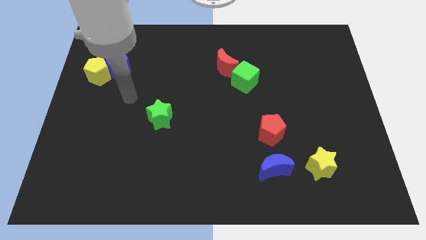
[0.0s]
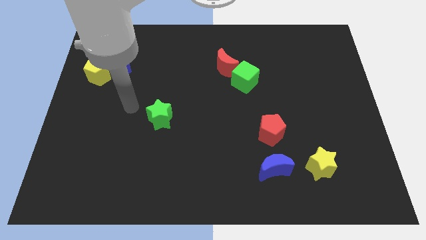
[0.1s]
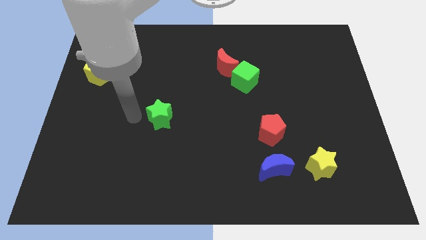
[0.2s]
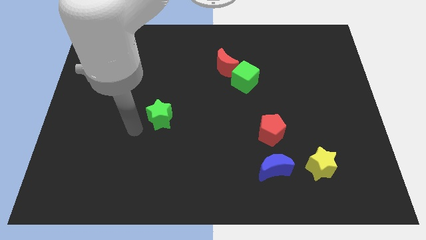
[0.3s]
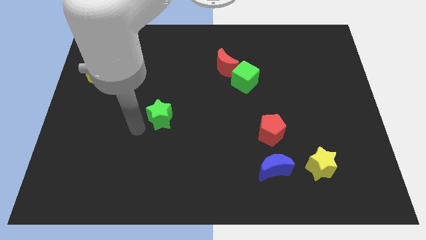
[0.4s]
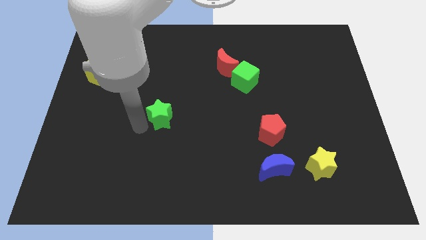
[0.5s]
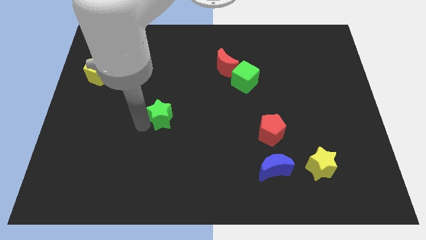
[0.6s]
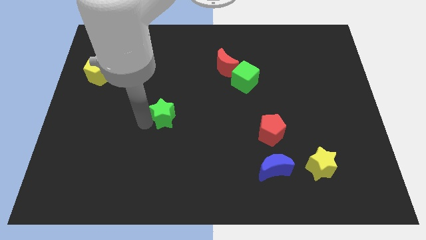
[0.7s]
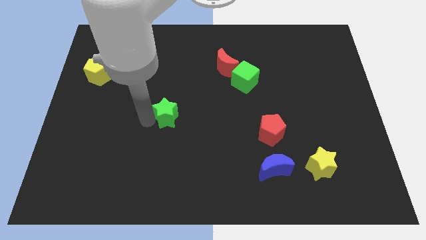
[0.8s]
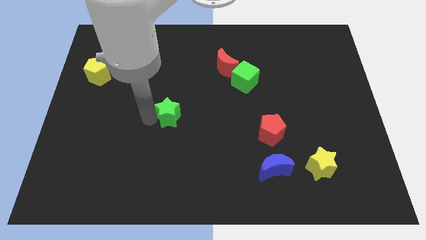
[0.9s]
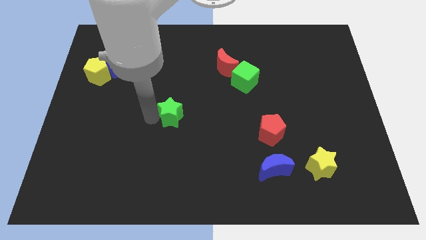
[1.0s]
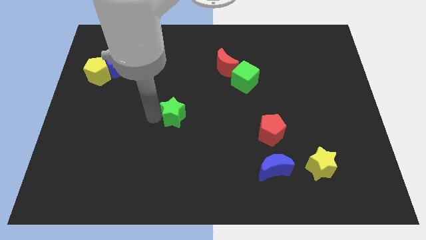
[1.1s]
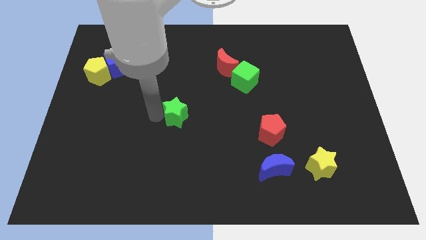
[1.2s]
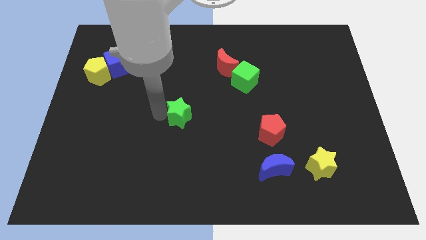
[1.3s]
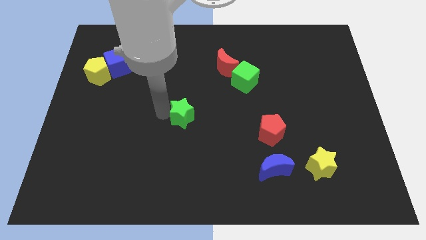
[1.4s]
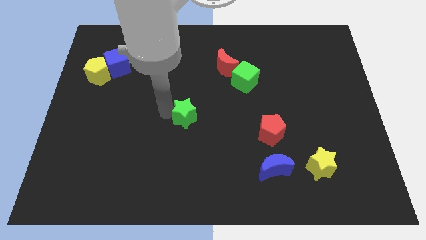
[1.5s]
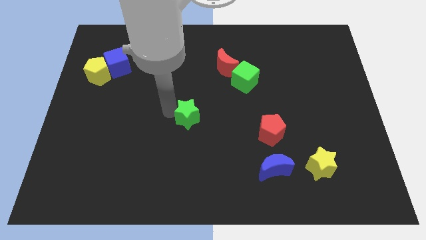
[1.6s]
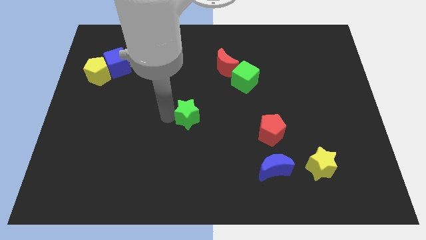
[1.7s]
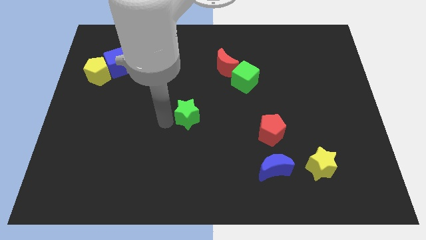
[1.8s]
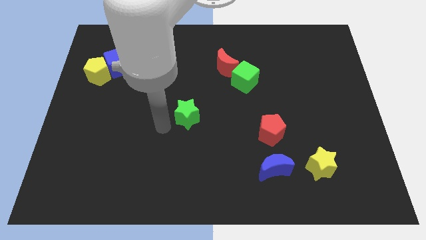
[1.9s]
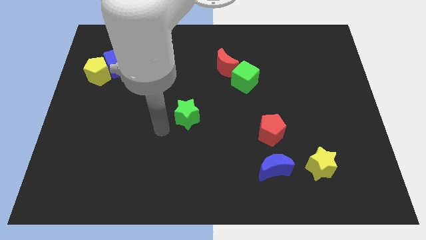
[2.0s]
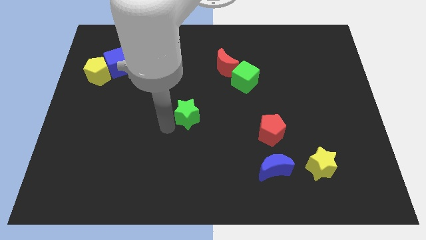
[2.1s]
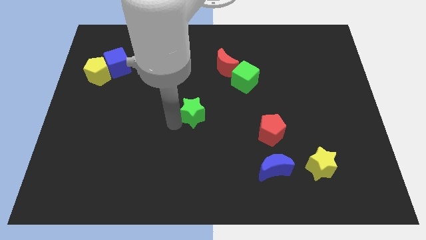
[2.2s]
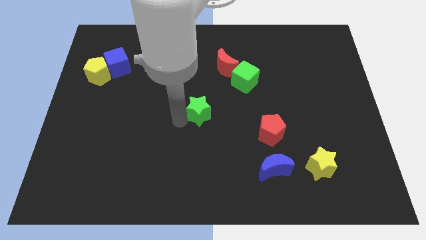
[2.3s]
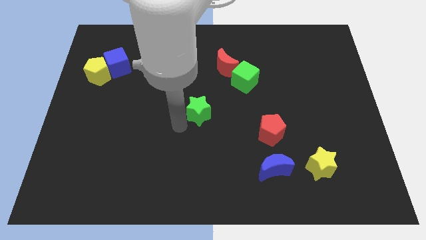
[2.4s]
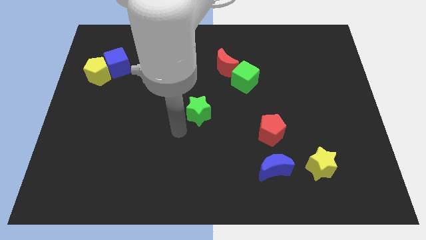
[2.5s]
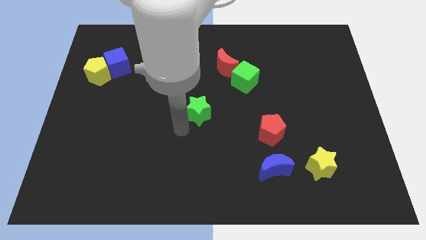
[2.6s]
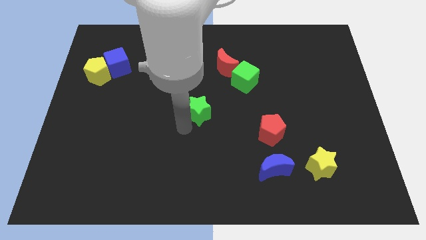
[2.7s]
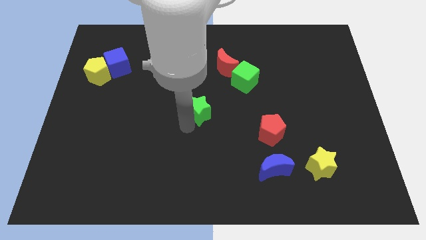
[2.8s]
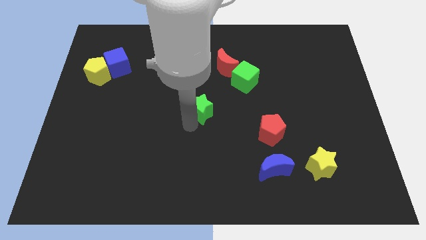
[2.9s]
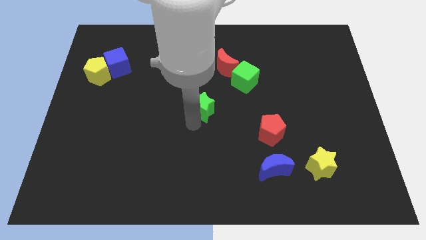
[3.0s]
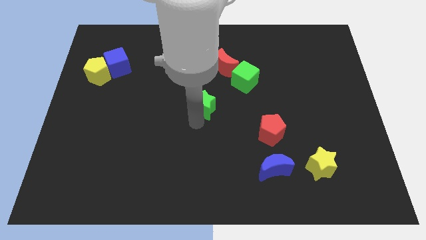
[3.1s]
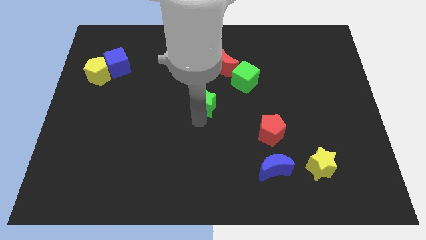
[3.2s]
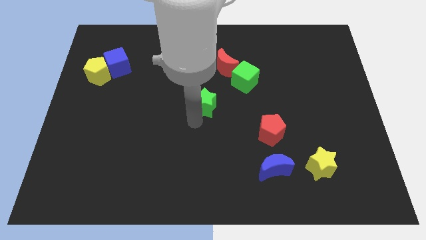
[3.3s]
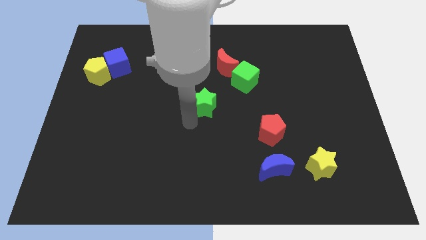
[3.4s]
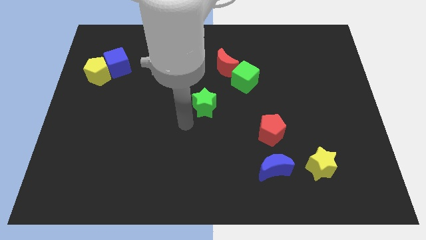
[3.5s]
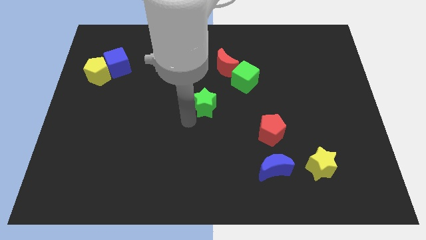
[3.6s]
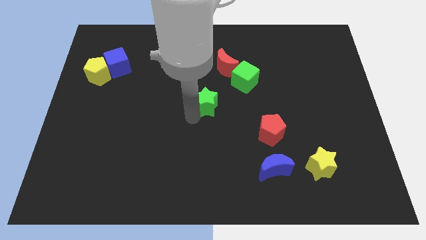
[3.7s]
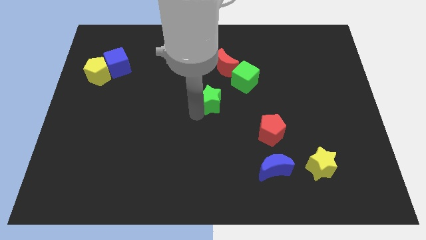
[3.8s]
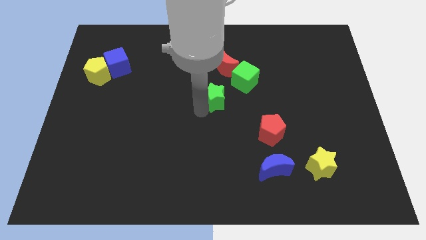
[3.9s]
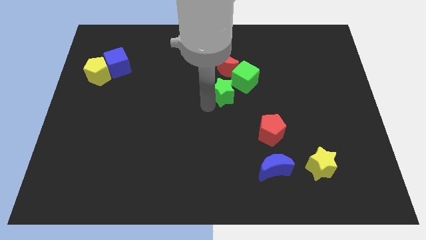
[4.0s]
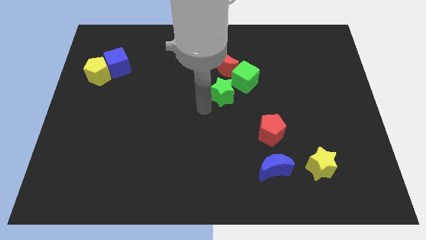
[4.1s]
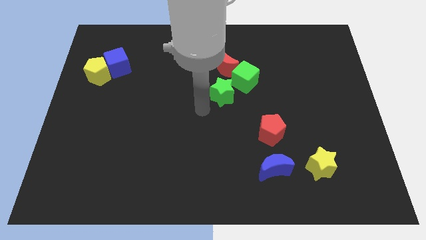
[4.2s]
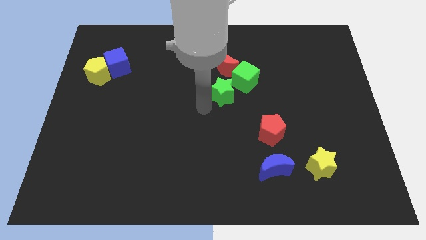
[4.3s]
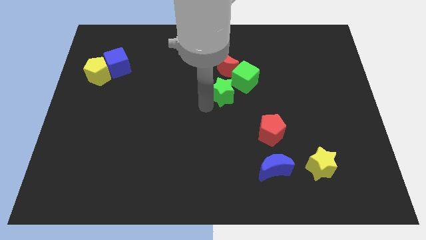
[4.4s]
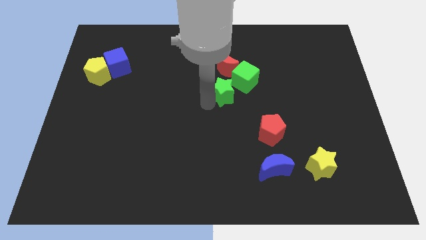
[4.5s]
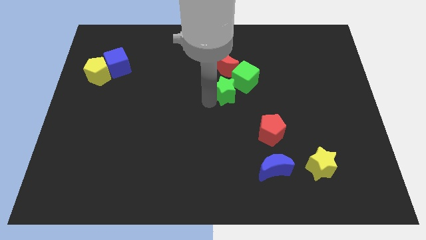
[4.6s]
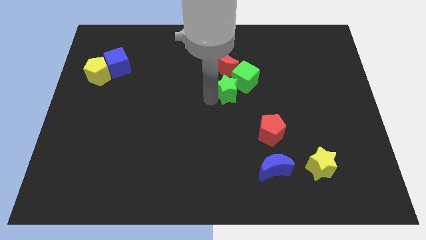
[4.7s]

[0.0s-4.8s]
slide the green star towards the green cube

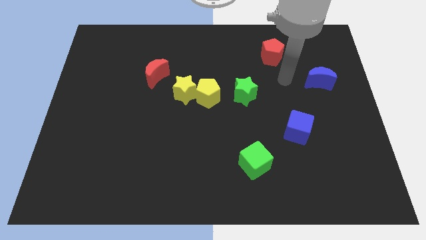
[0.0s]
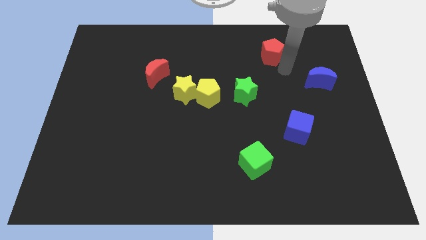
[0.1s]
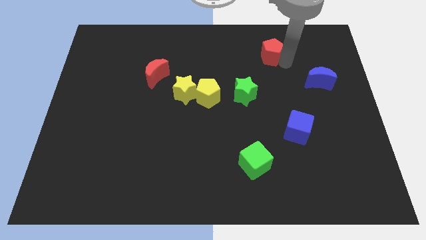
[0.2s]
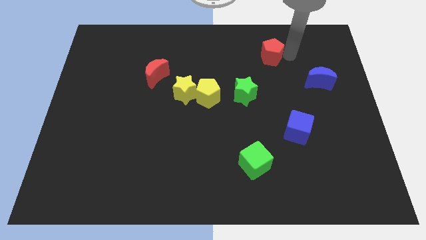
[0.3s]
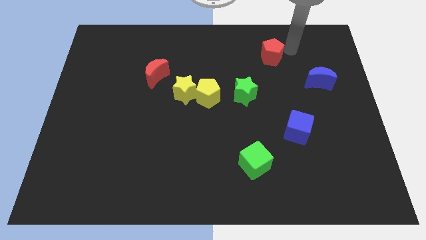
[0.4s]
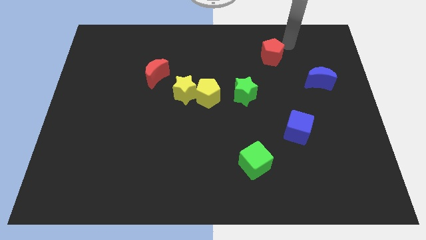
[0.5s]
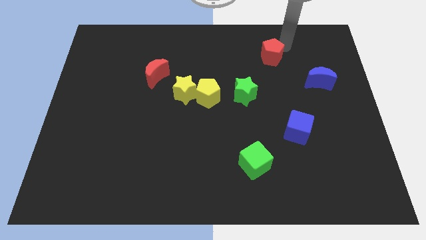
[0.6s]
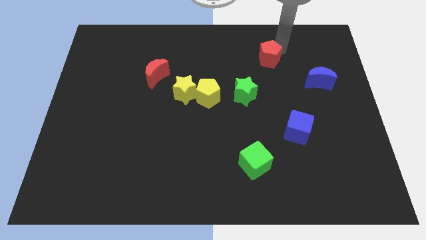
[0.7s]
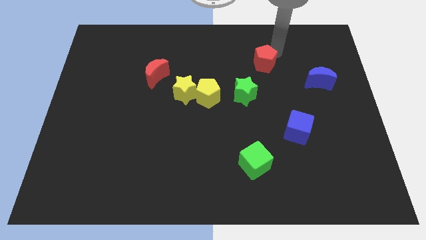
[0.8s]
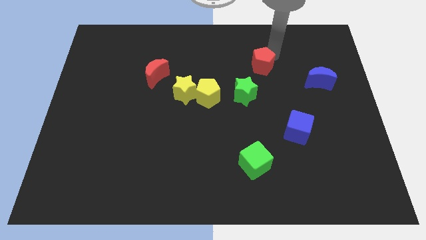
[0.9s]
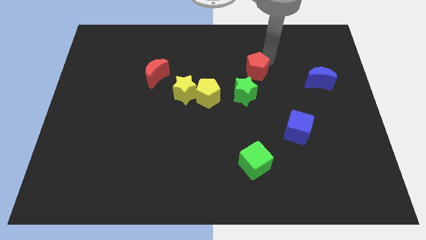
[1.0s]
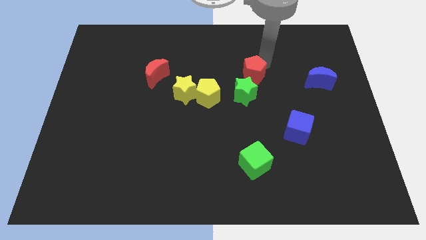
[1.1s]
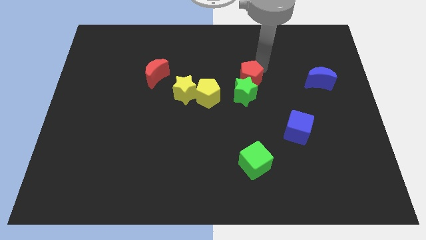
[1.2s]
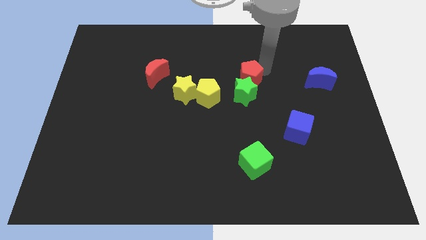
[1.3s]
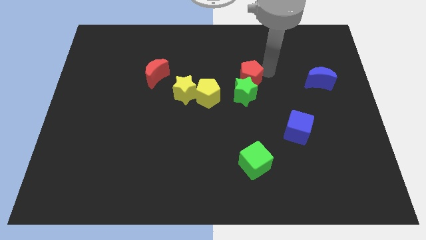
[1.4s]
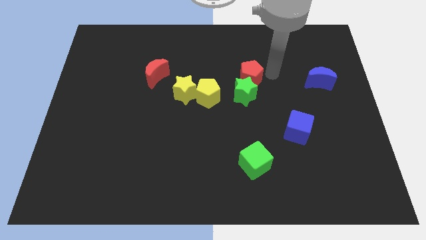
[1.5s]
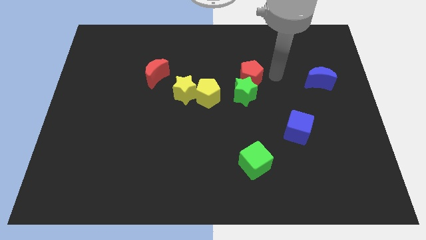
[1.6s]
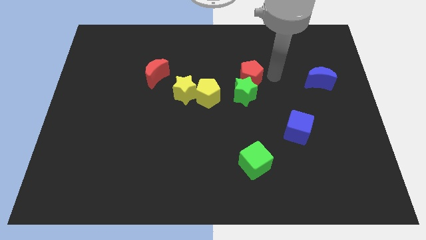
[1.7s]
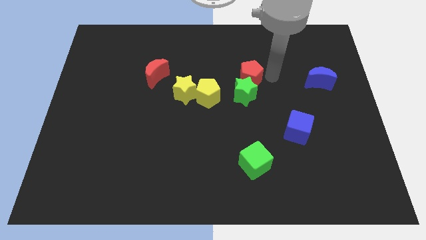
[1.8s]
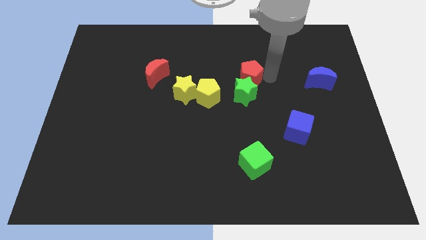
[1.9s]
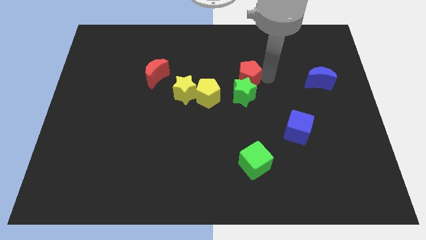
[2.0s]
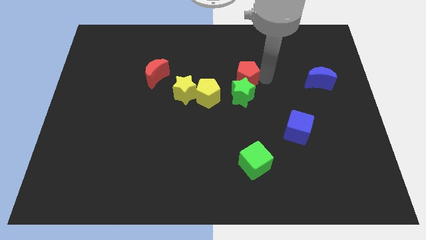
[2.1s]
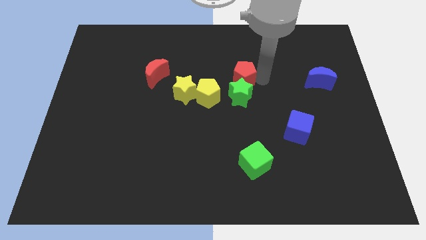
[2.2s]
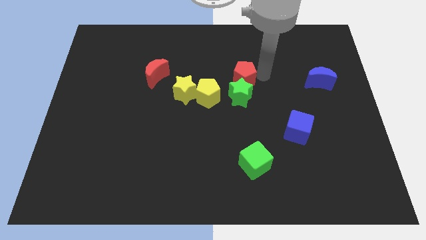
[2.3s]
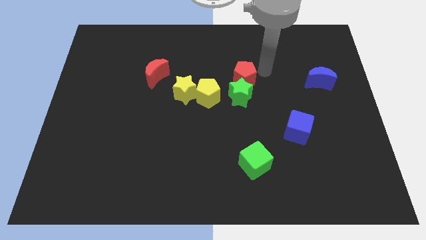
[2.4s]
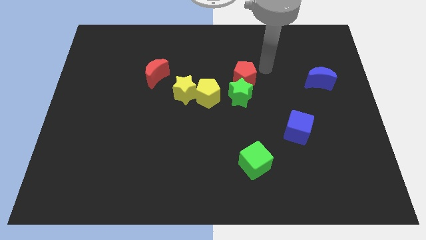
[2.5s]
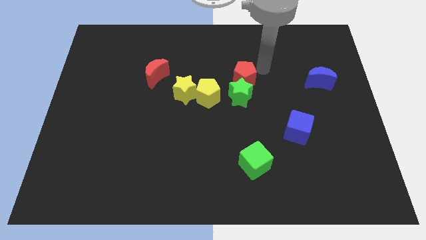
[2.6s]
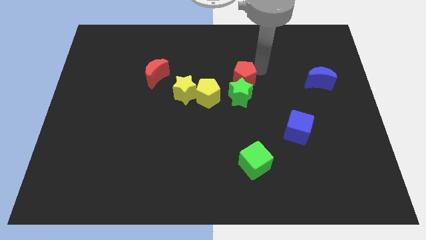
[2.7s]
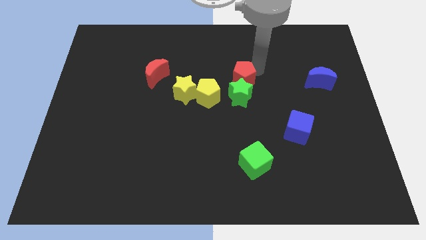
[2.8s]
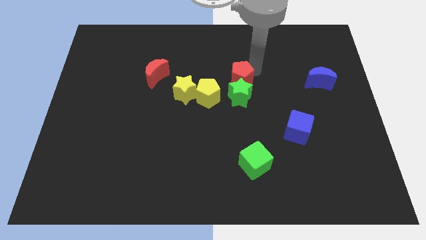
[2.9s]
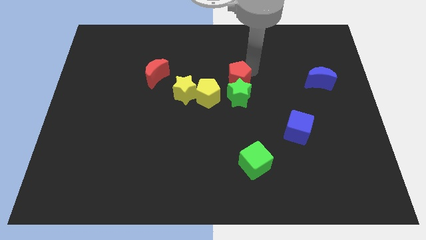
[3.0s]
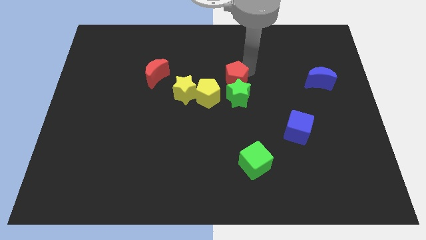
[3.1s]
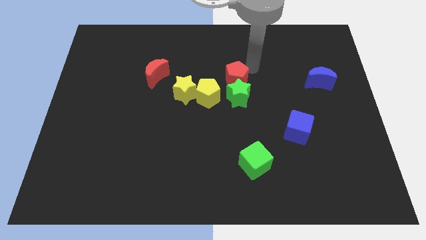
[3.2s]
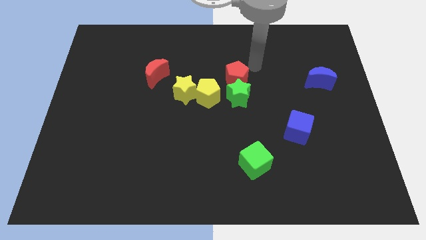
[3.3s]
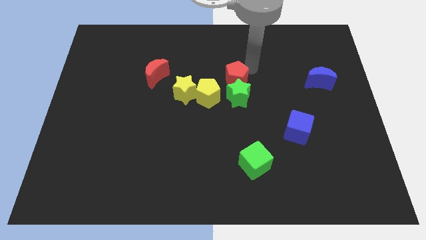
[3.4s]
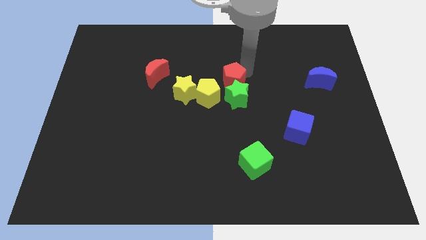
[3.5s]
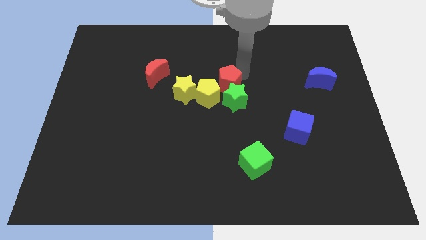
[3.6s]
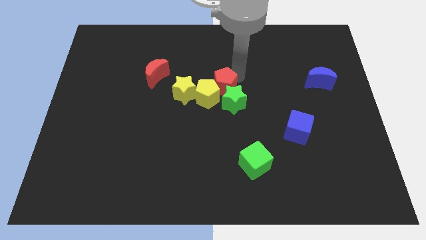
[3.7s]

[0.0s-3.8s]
put the red pentagon next to the yellow pentagon
